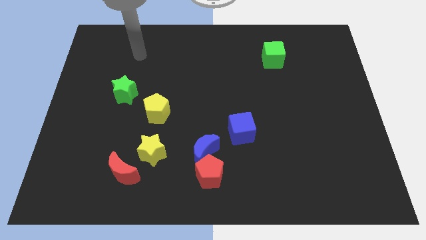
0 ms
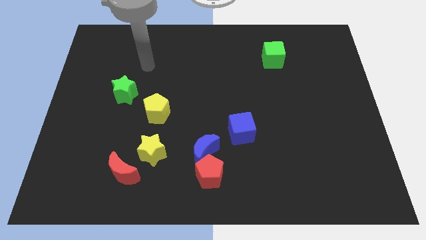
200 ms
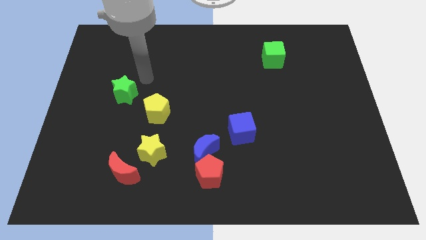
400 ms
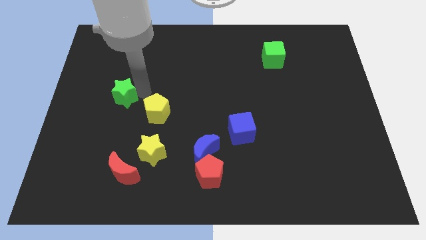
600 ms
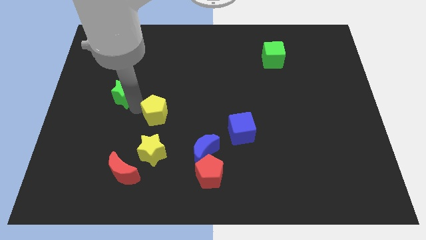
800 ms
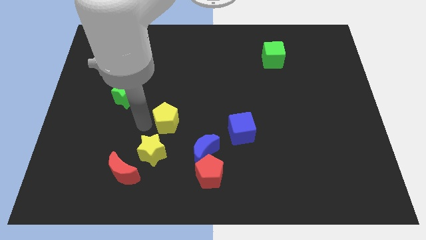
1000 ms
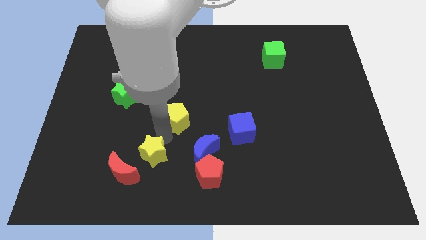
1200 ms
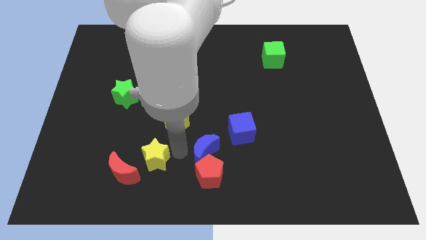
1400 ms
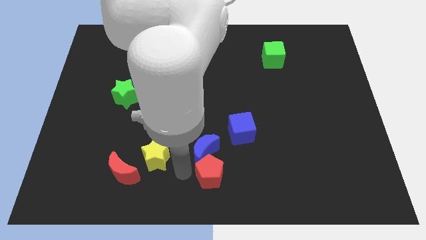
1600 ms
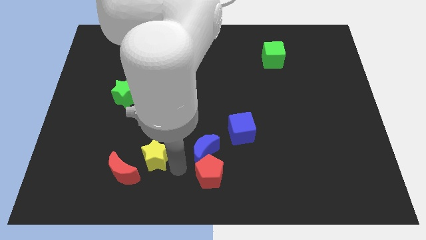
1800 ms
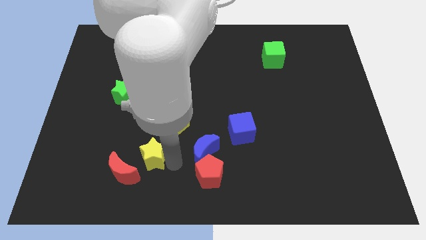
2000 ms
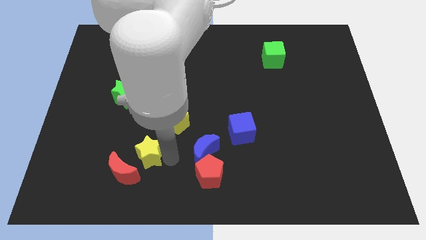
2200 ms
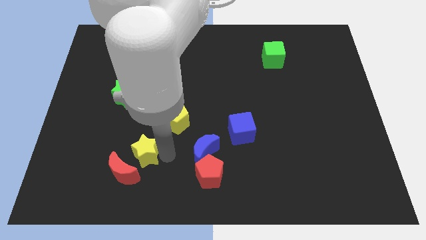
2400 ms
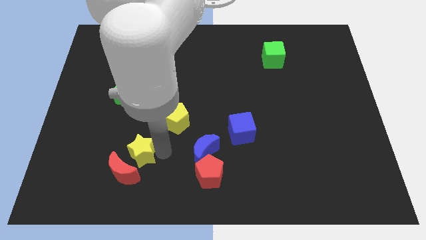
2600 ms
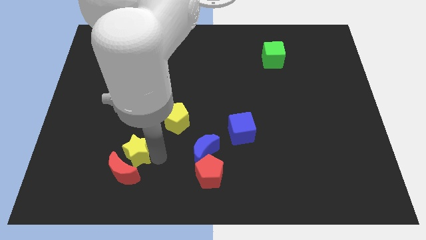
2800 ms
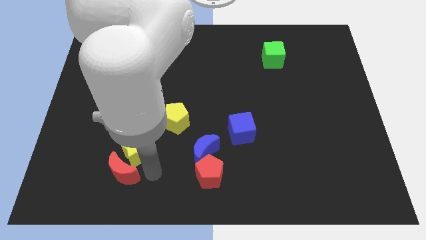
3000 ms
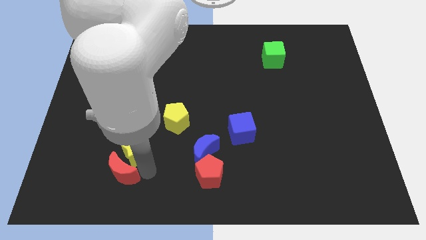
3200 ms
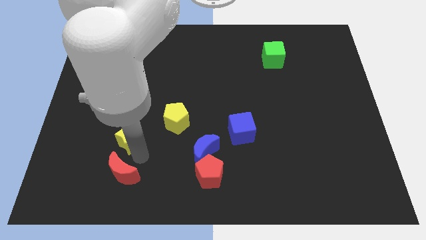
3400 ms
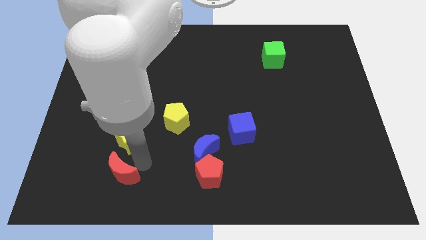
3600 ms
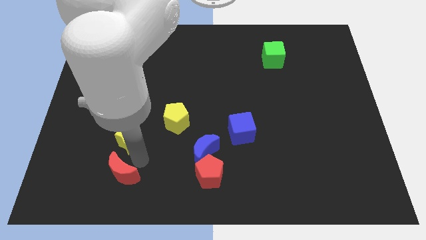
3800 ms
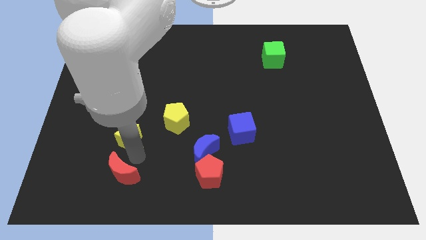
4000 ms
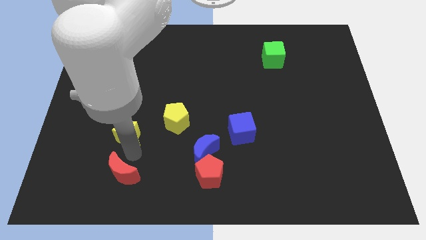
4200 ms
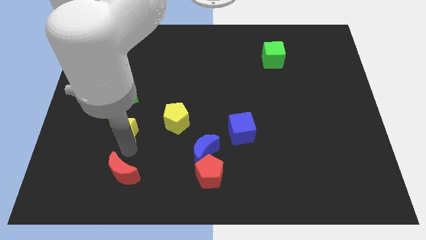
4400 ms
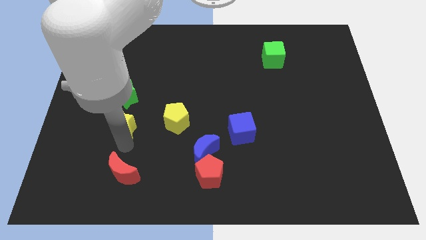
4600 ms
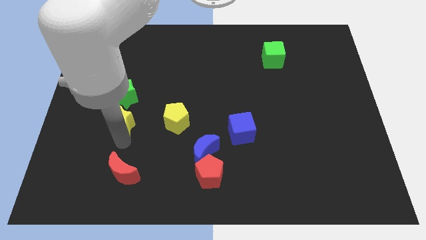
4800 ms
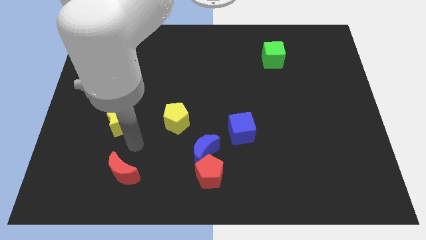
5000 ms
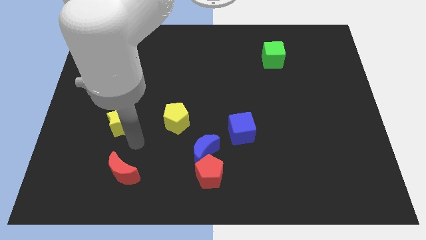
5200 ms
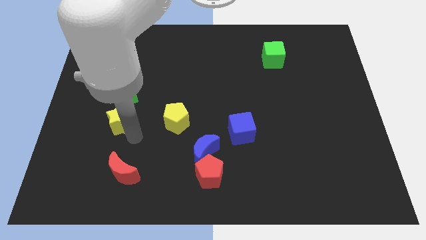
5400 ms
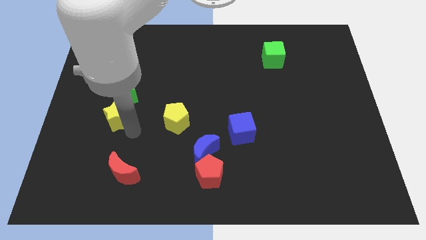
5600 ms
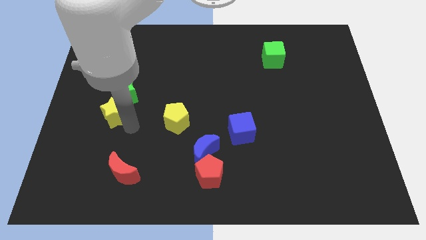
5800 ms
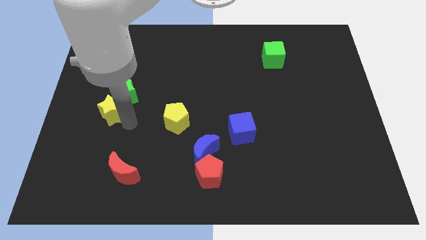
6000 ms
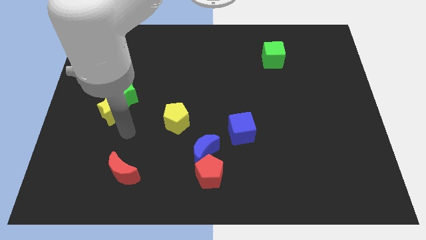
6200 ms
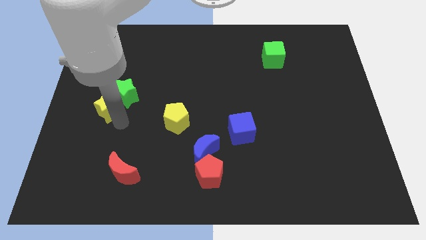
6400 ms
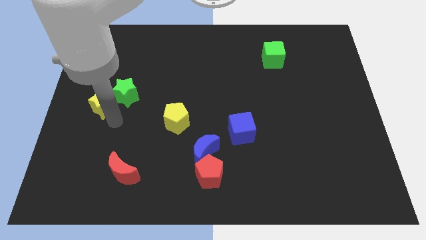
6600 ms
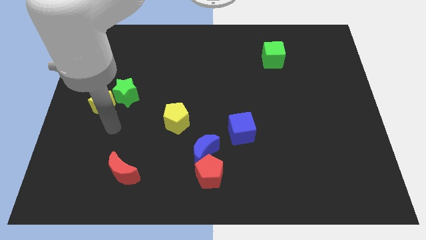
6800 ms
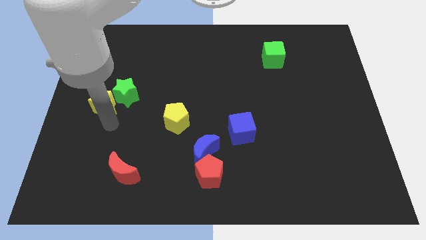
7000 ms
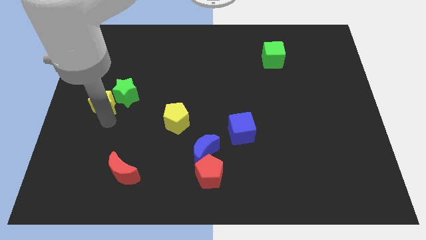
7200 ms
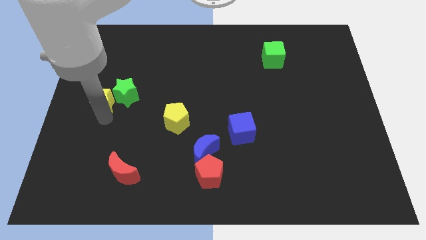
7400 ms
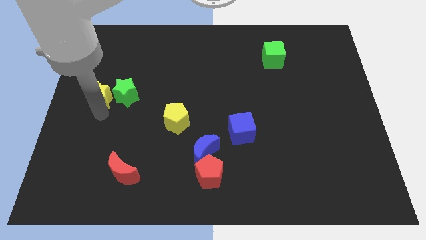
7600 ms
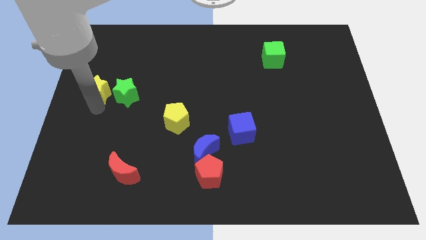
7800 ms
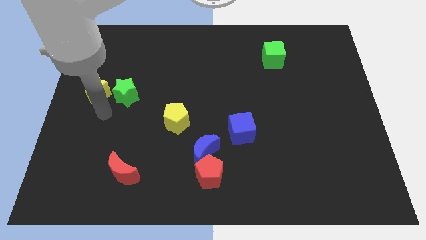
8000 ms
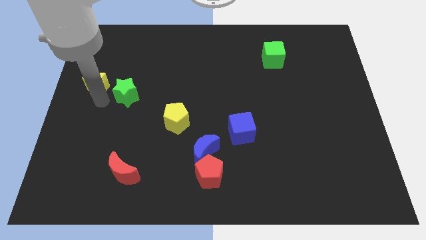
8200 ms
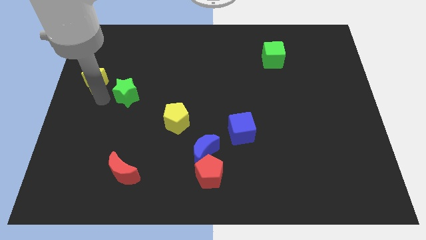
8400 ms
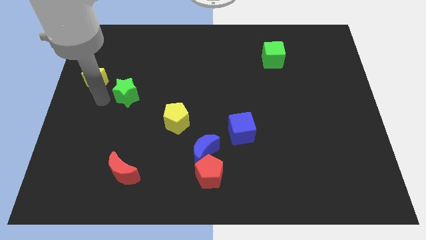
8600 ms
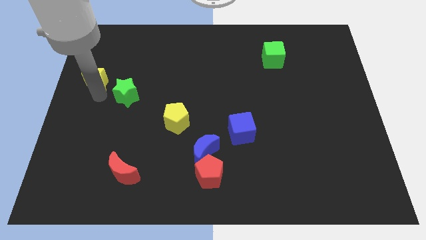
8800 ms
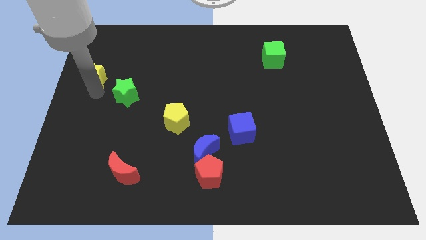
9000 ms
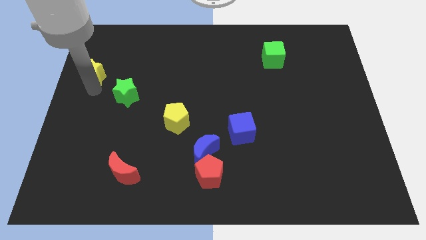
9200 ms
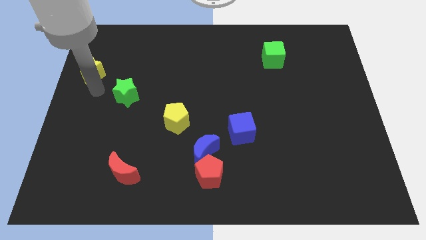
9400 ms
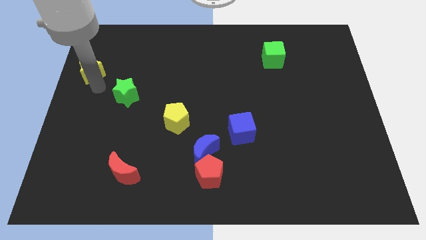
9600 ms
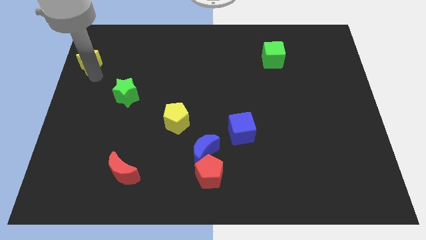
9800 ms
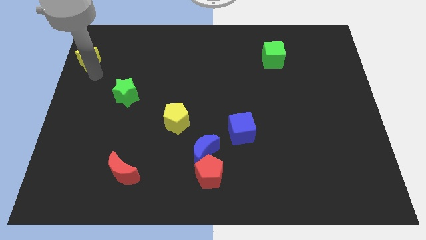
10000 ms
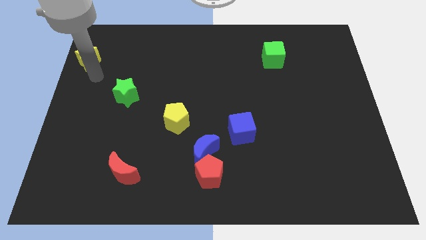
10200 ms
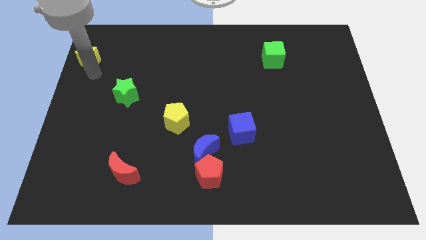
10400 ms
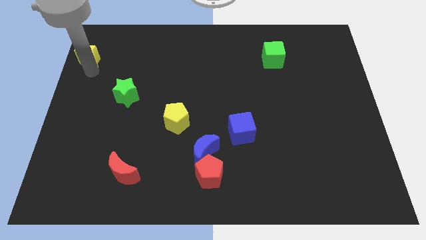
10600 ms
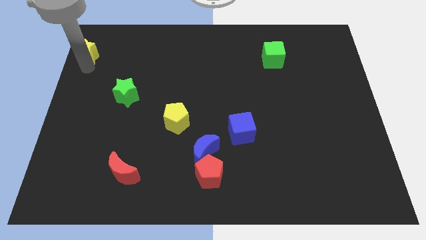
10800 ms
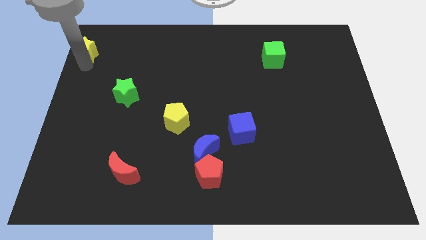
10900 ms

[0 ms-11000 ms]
move the yellow star to the upper left corner

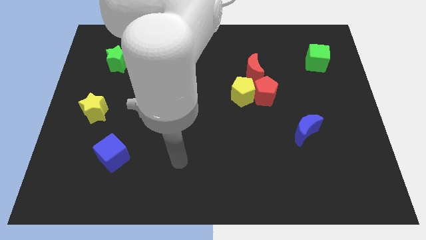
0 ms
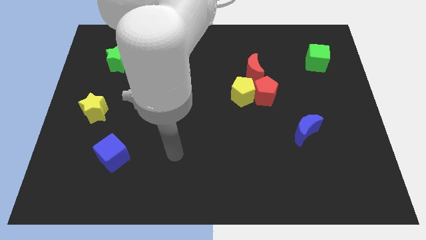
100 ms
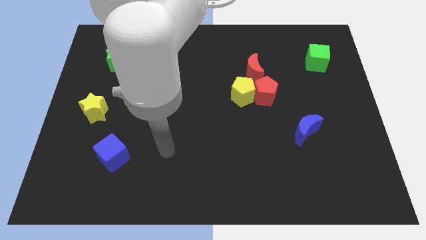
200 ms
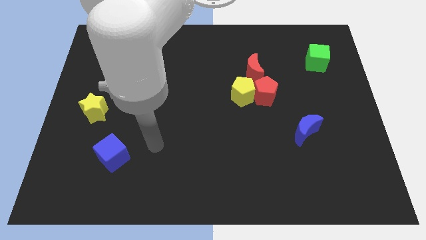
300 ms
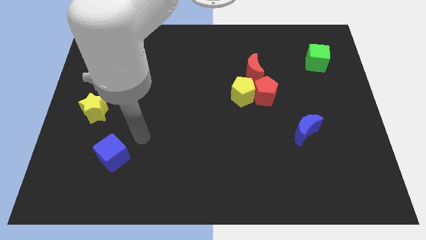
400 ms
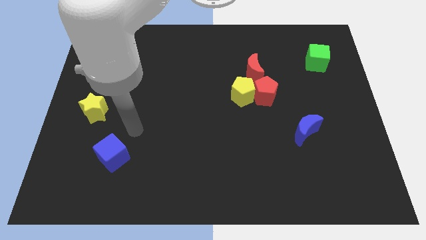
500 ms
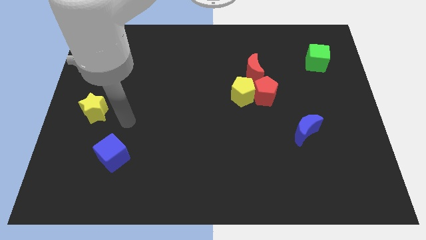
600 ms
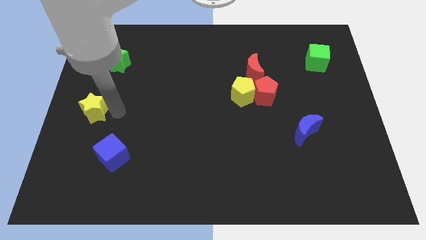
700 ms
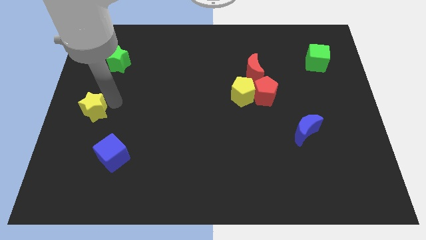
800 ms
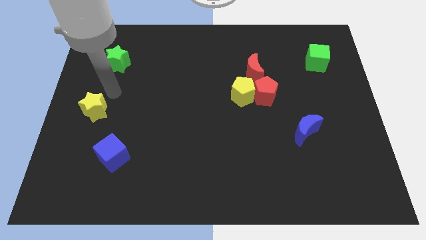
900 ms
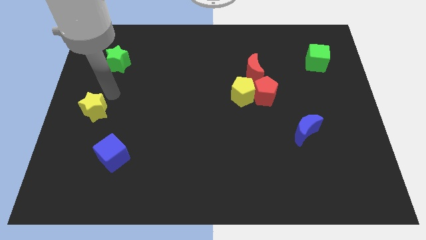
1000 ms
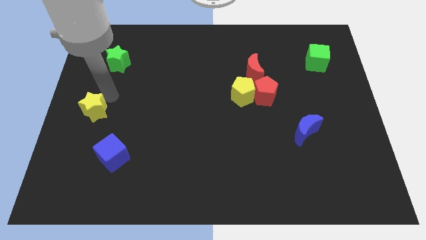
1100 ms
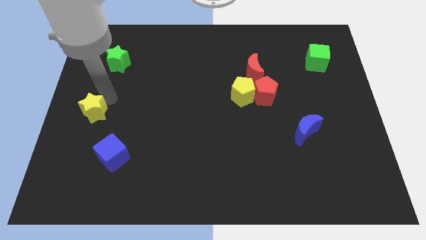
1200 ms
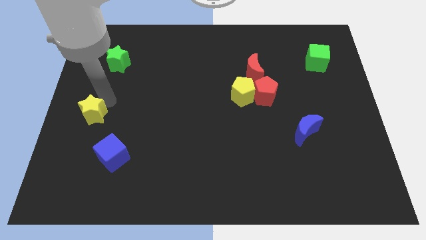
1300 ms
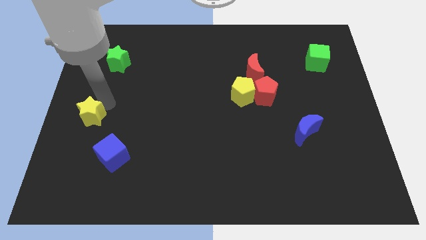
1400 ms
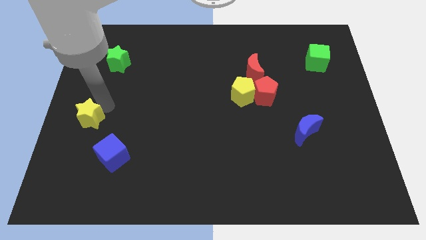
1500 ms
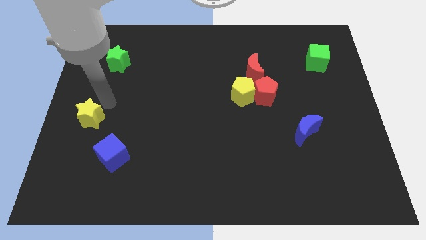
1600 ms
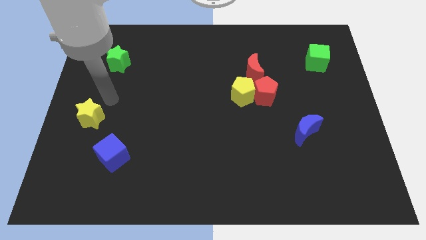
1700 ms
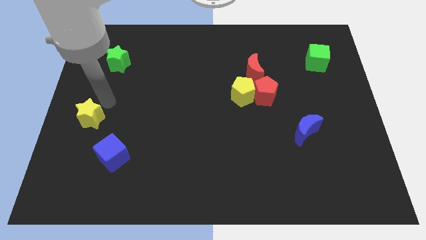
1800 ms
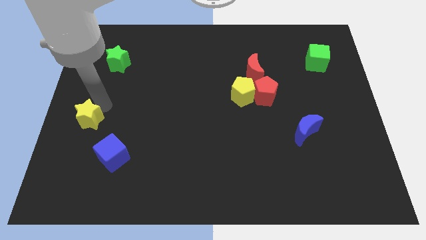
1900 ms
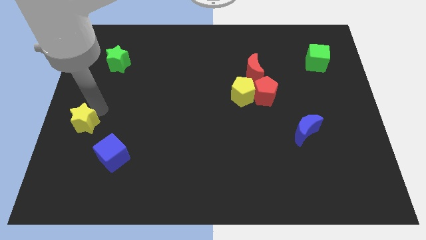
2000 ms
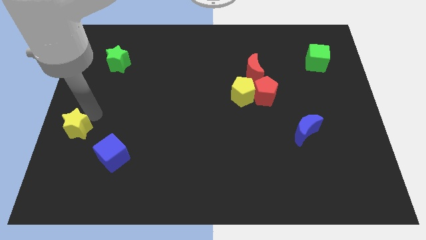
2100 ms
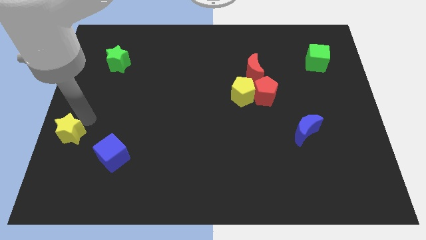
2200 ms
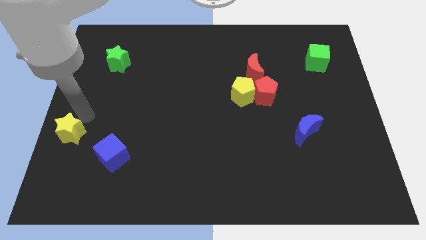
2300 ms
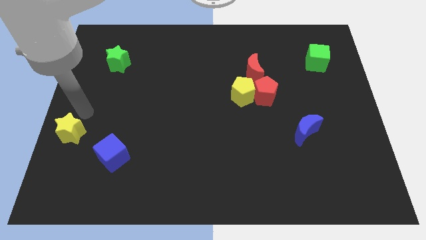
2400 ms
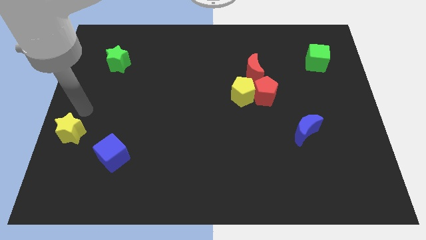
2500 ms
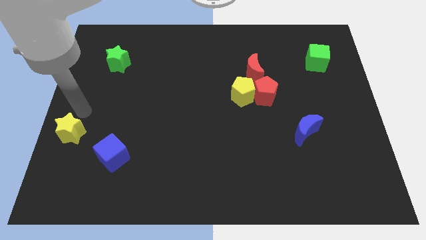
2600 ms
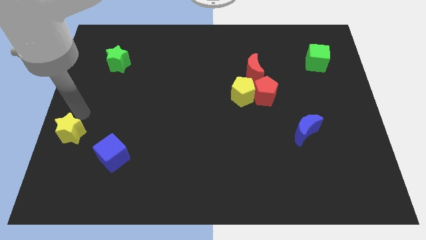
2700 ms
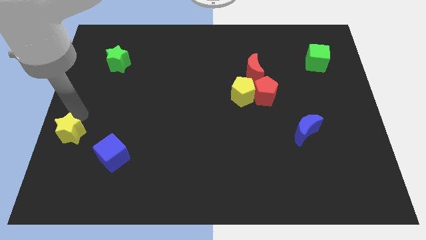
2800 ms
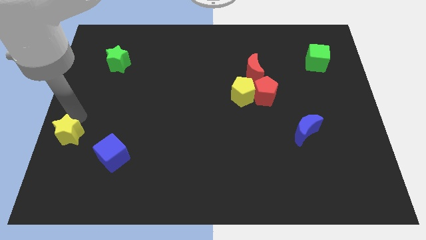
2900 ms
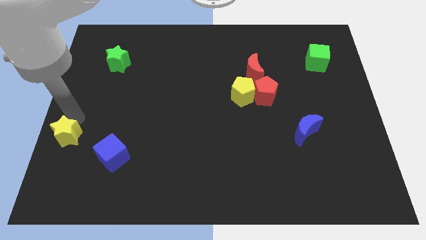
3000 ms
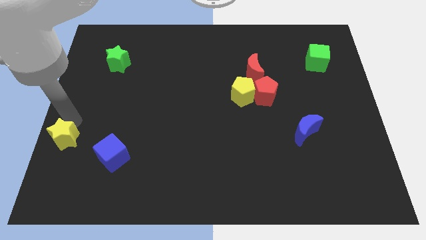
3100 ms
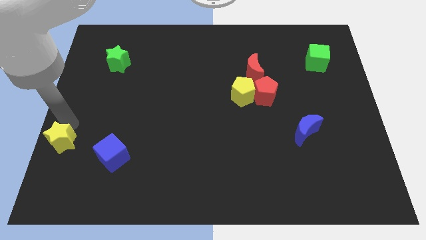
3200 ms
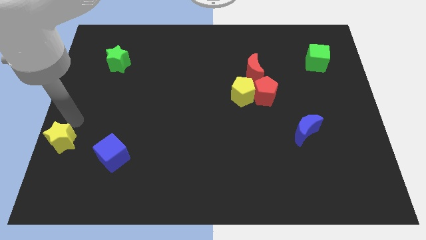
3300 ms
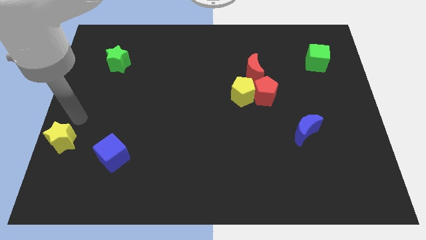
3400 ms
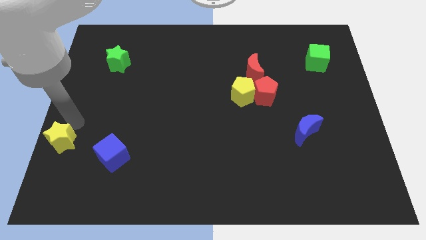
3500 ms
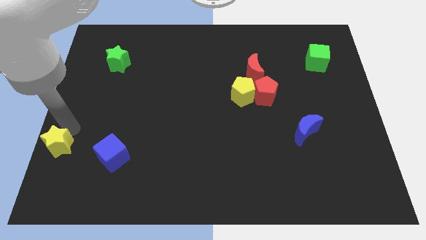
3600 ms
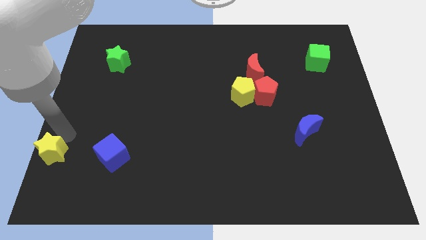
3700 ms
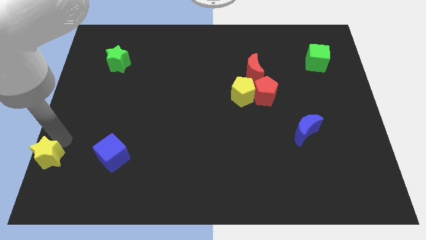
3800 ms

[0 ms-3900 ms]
put the yellow star to the lower left corner
